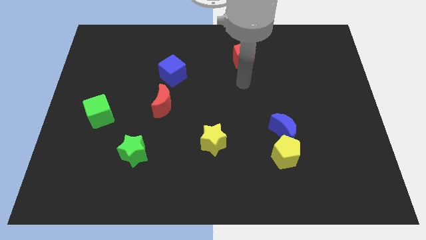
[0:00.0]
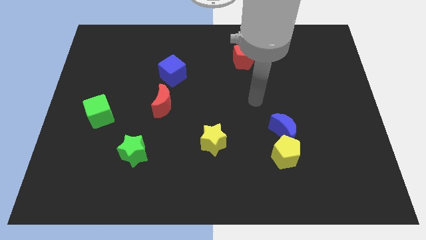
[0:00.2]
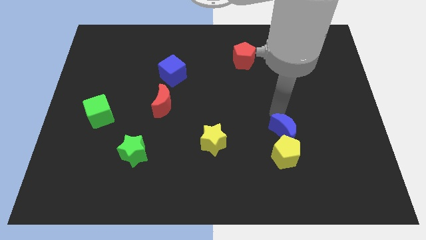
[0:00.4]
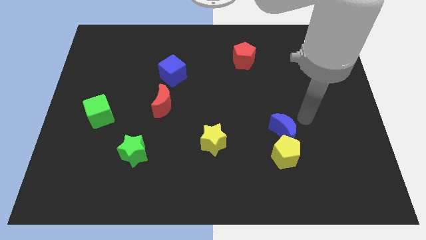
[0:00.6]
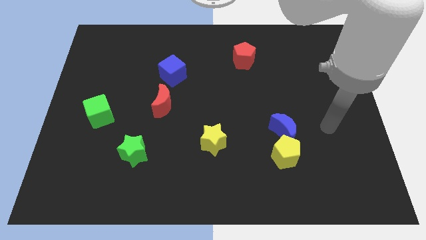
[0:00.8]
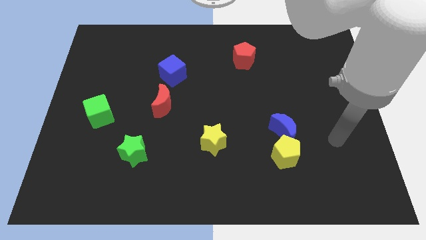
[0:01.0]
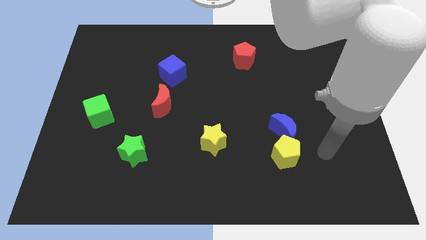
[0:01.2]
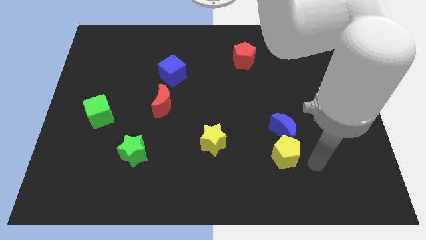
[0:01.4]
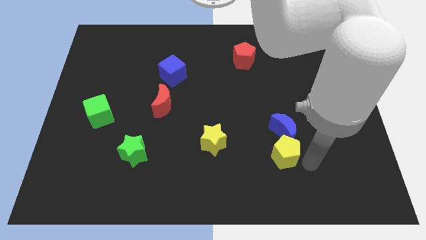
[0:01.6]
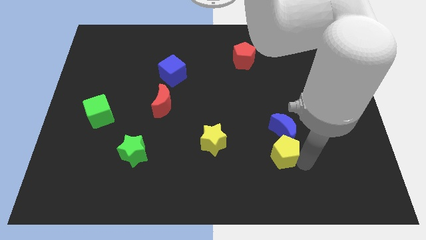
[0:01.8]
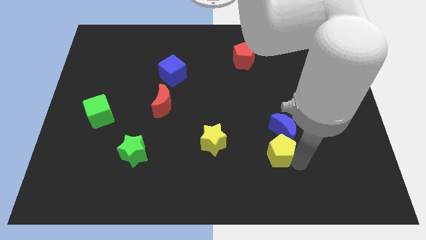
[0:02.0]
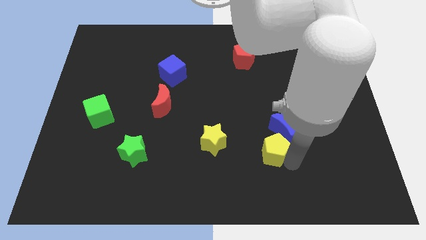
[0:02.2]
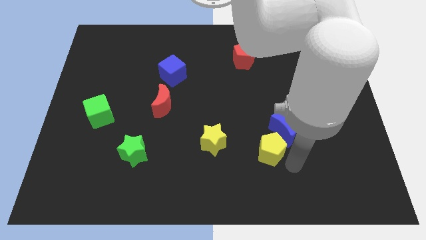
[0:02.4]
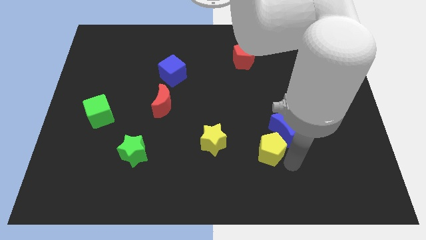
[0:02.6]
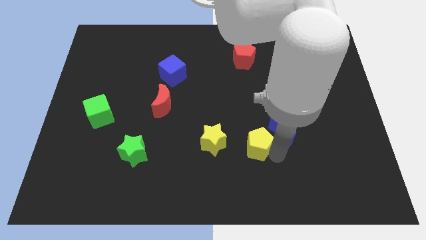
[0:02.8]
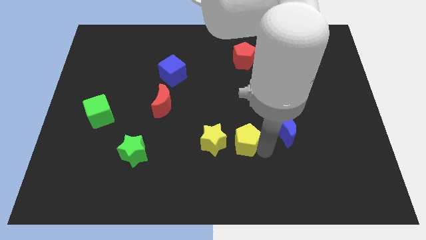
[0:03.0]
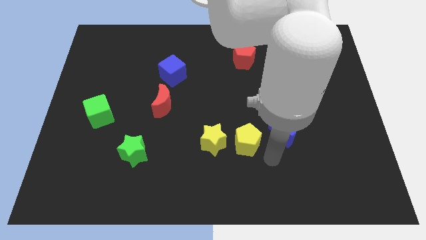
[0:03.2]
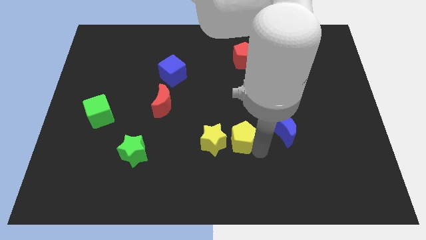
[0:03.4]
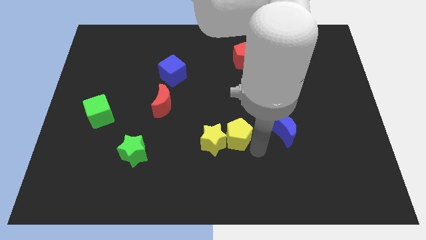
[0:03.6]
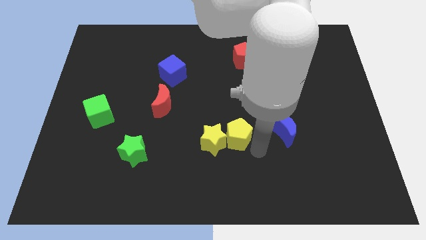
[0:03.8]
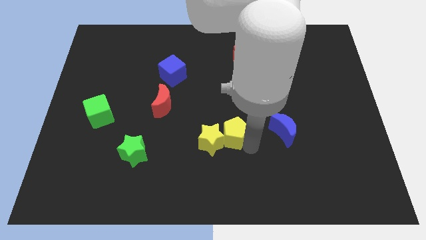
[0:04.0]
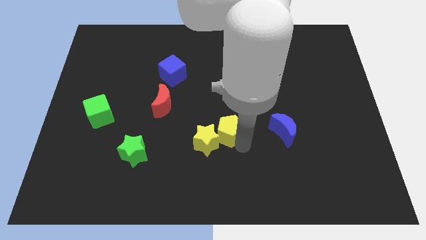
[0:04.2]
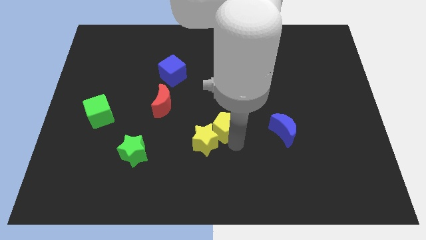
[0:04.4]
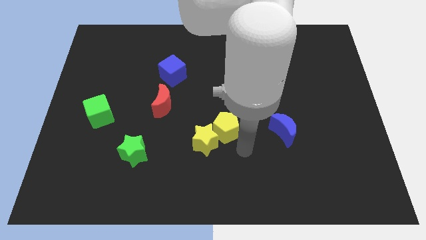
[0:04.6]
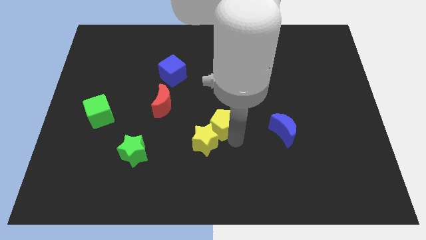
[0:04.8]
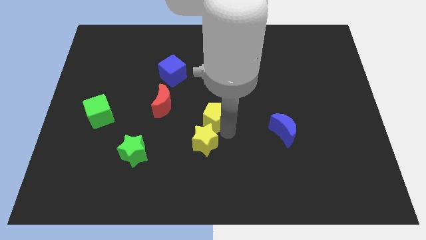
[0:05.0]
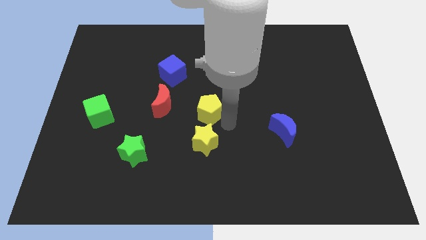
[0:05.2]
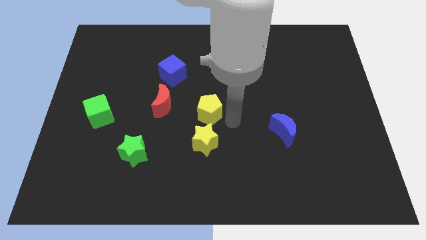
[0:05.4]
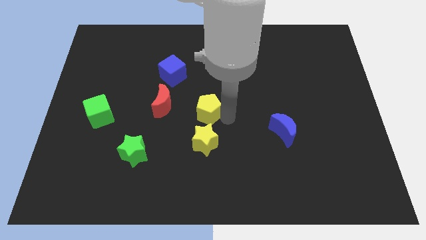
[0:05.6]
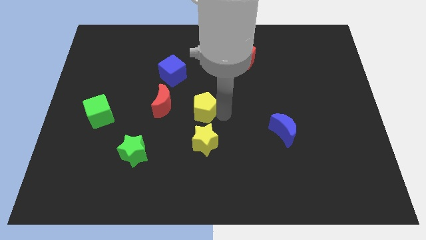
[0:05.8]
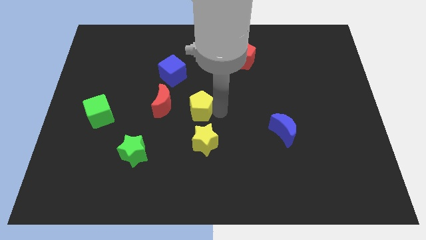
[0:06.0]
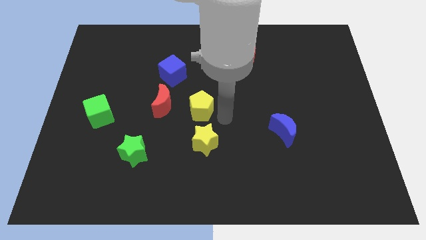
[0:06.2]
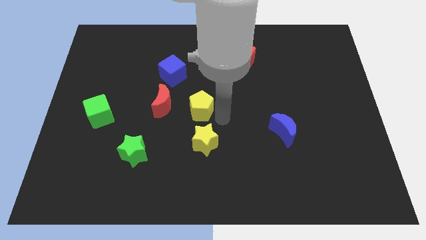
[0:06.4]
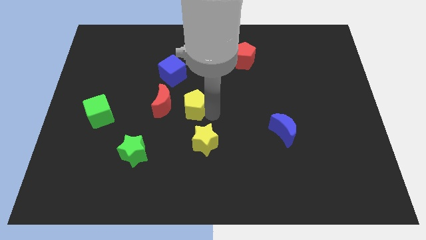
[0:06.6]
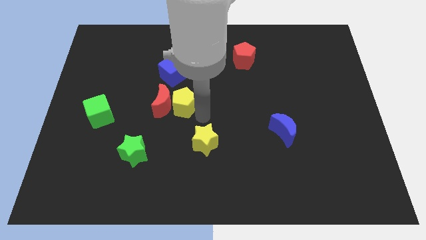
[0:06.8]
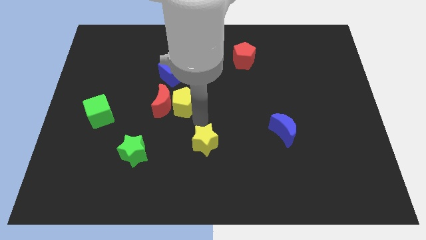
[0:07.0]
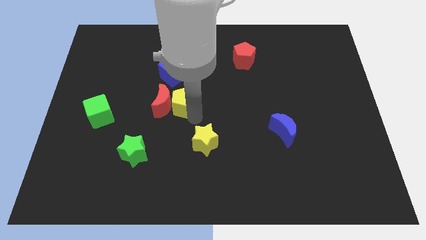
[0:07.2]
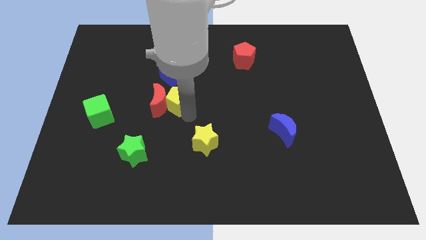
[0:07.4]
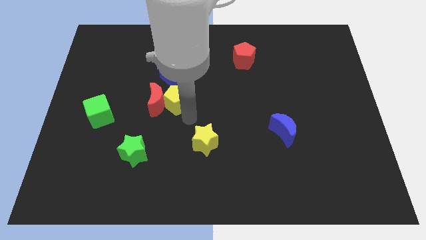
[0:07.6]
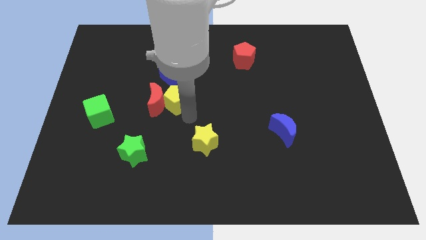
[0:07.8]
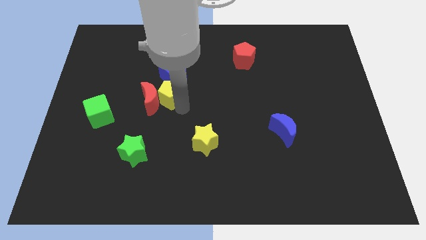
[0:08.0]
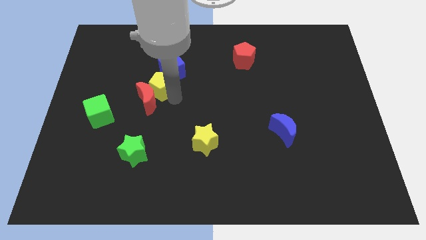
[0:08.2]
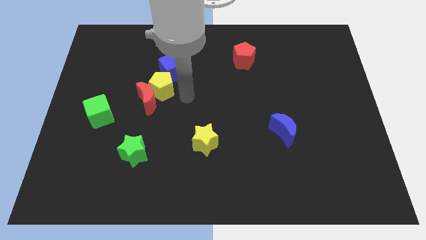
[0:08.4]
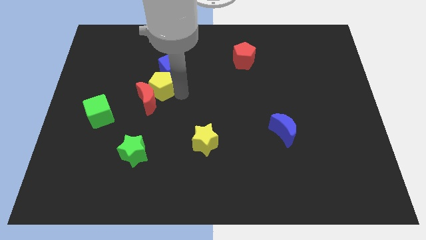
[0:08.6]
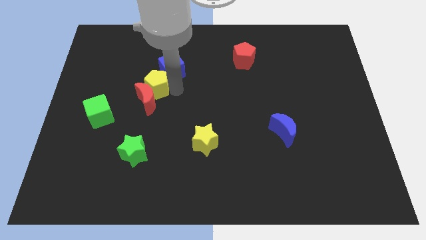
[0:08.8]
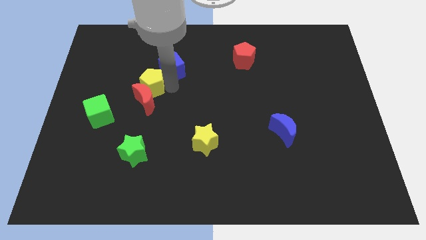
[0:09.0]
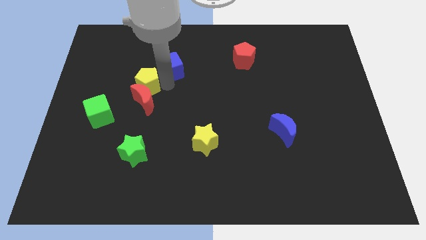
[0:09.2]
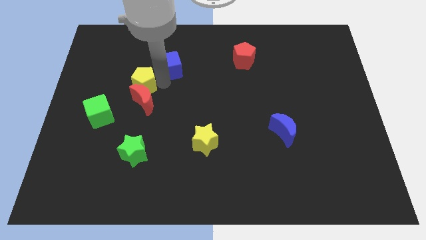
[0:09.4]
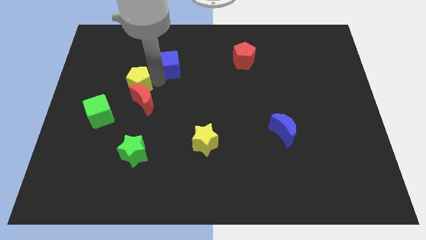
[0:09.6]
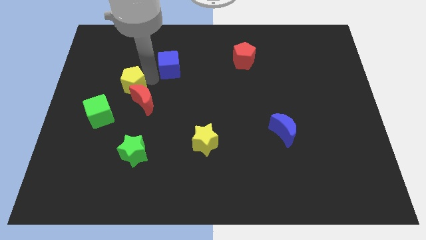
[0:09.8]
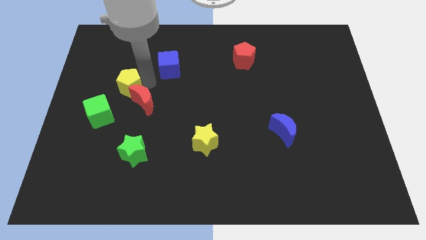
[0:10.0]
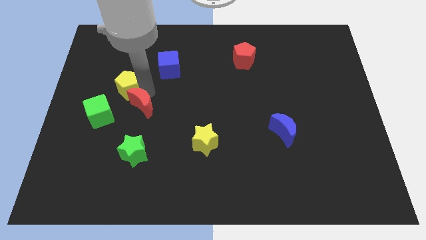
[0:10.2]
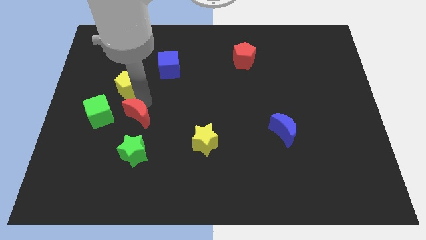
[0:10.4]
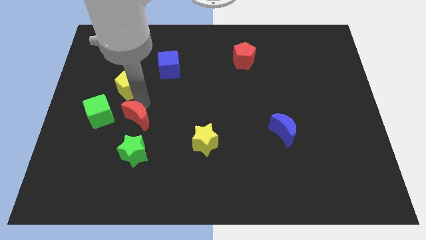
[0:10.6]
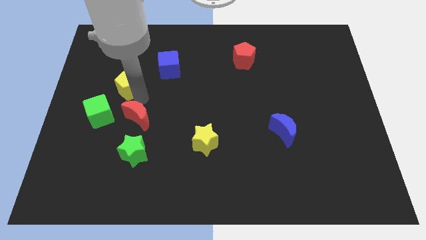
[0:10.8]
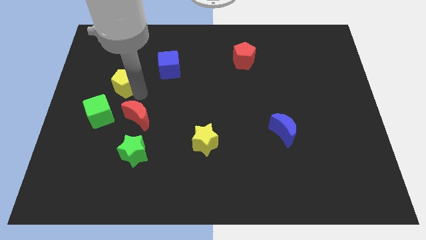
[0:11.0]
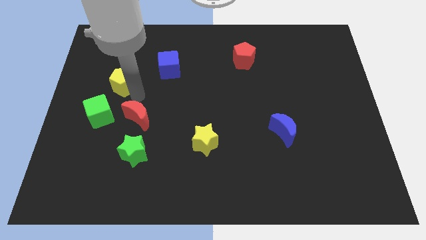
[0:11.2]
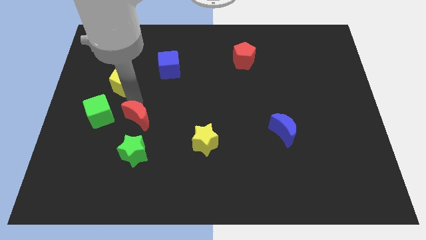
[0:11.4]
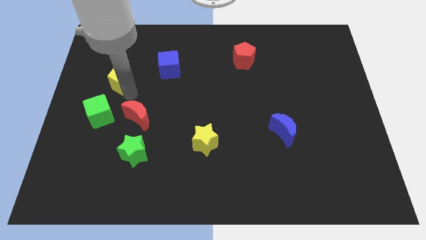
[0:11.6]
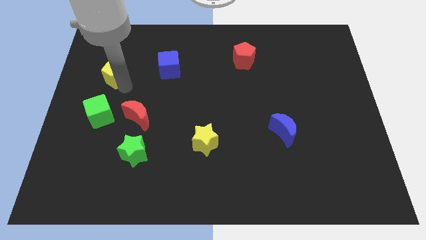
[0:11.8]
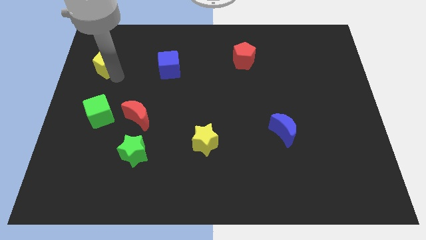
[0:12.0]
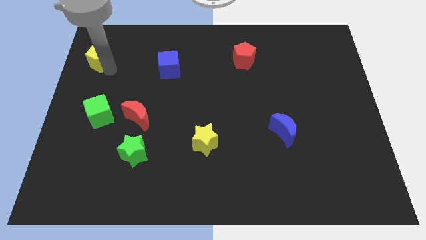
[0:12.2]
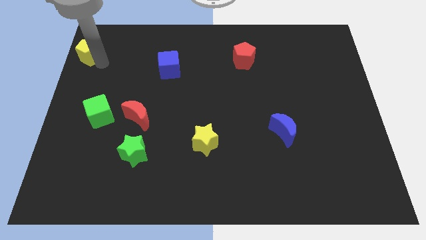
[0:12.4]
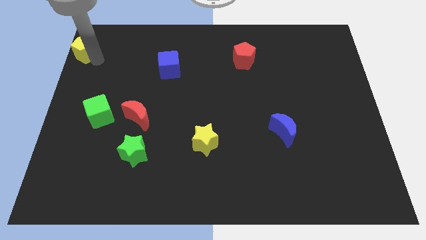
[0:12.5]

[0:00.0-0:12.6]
move the yellow pentagon to the top left corner

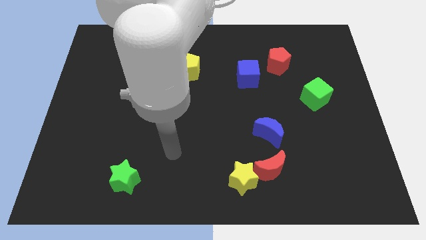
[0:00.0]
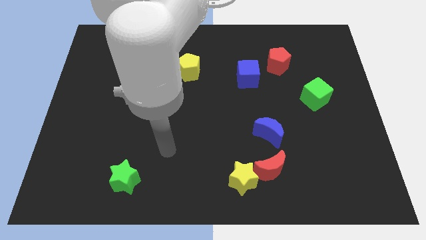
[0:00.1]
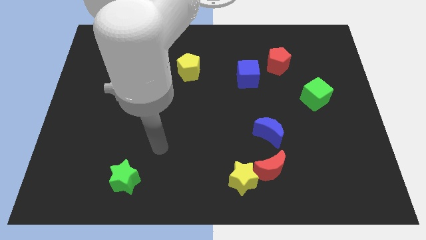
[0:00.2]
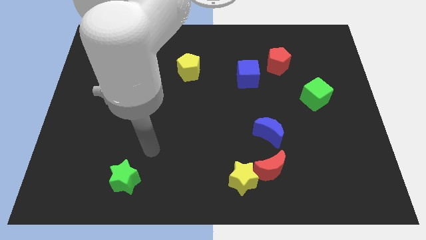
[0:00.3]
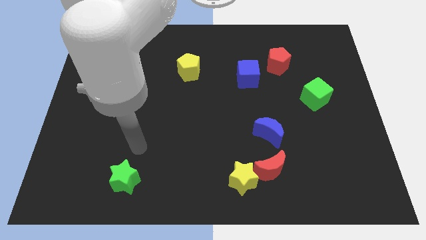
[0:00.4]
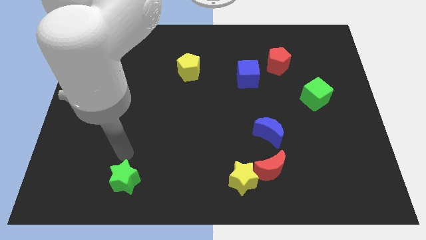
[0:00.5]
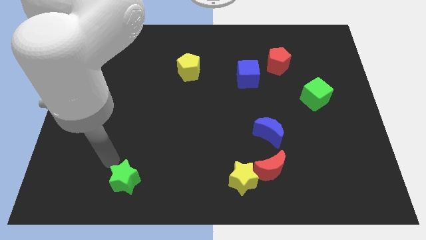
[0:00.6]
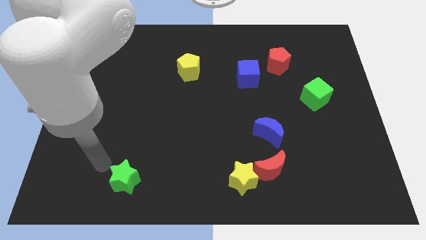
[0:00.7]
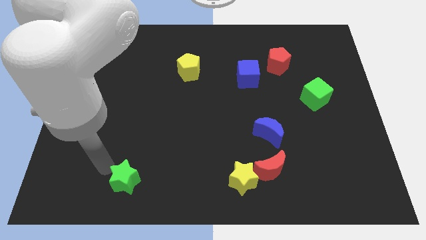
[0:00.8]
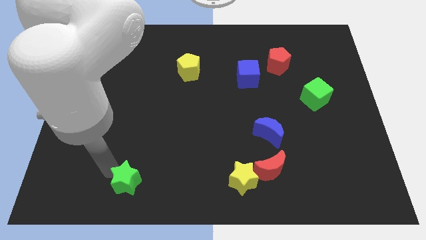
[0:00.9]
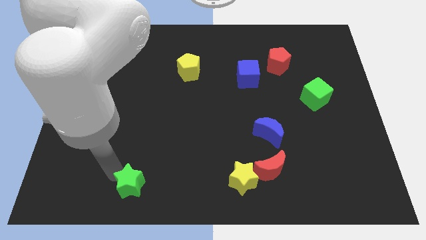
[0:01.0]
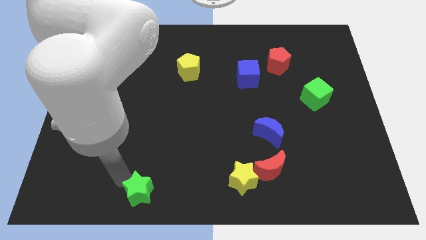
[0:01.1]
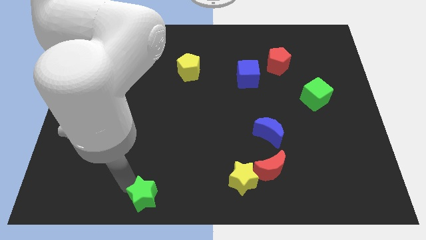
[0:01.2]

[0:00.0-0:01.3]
put the green star to the bottom side
